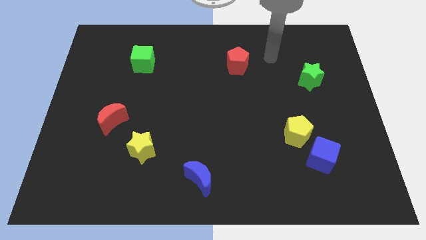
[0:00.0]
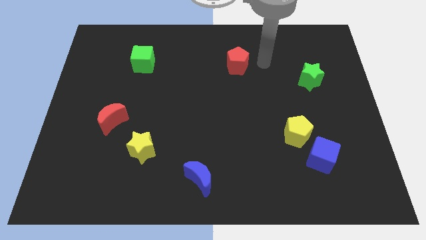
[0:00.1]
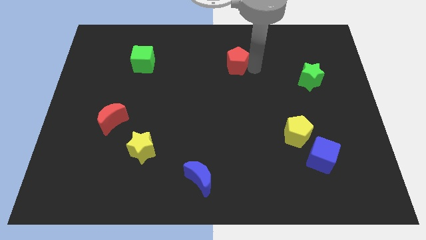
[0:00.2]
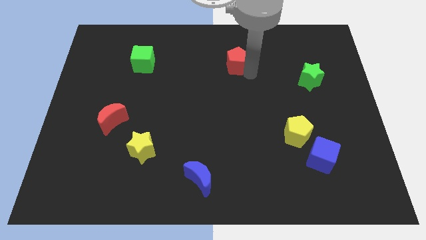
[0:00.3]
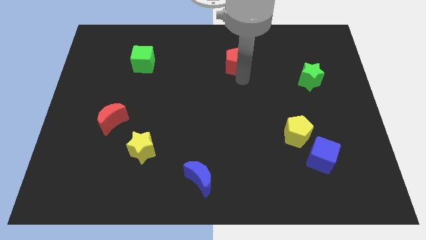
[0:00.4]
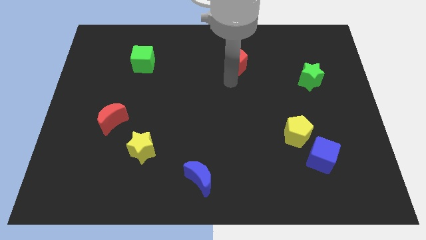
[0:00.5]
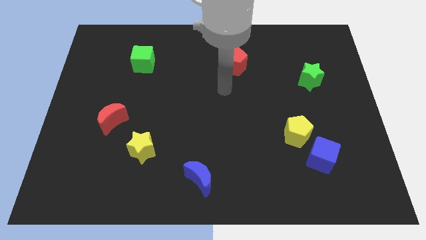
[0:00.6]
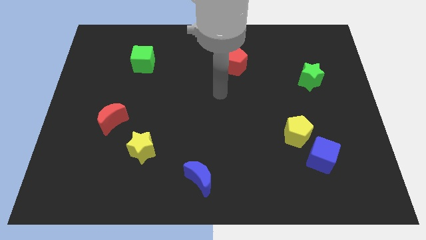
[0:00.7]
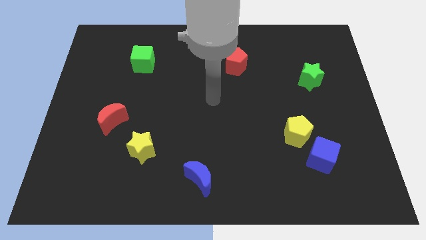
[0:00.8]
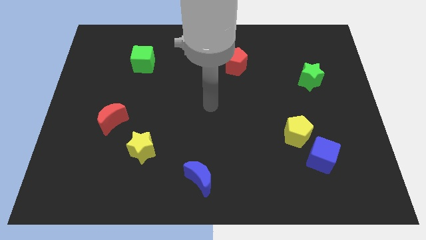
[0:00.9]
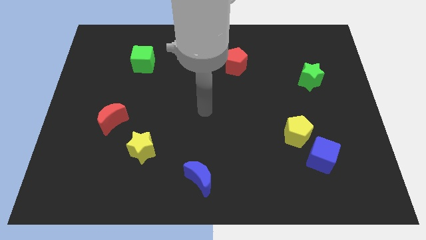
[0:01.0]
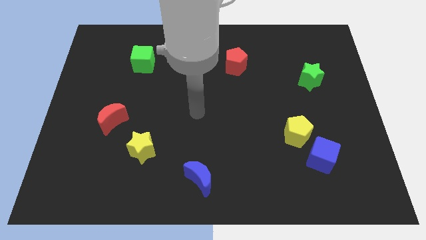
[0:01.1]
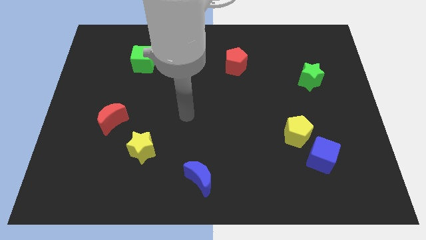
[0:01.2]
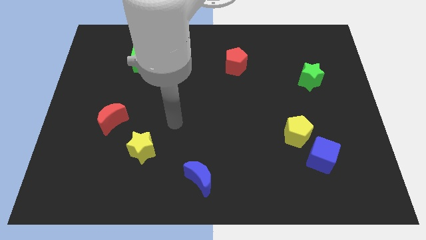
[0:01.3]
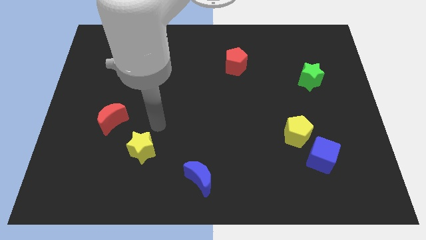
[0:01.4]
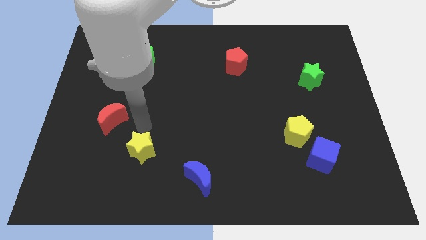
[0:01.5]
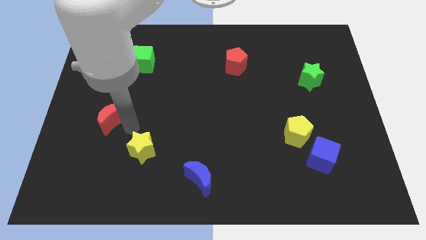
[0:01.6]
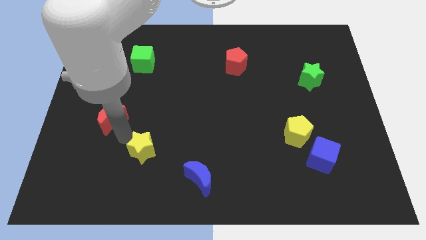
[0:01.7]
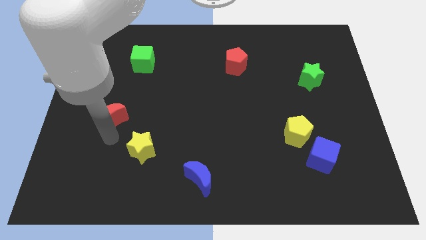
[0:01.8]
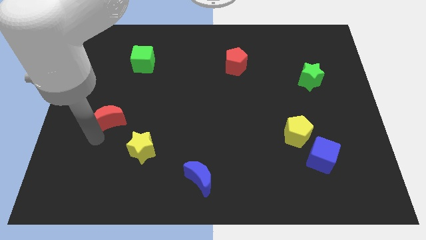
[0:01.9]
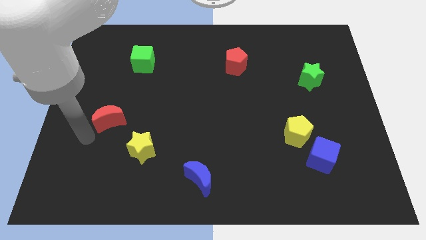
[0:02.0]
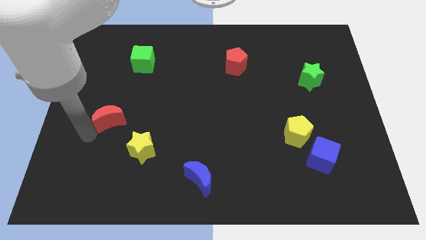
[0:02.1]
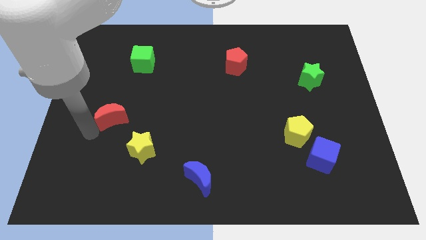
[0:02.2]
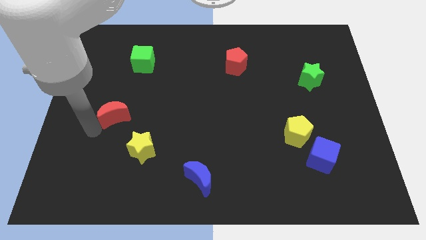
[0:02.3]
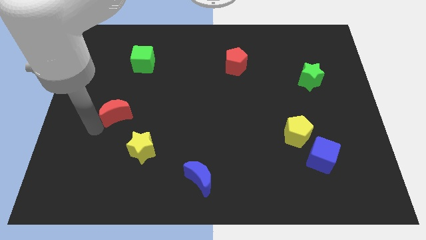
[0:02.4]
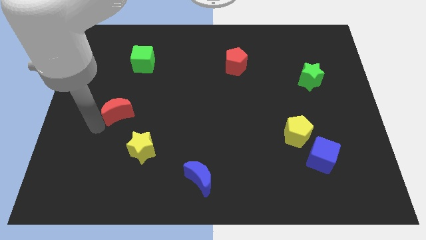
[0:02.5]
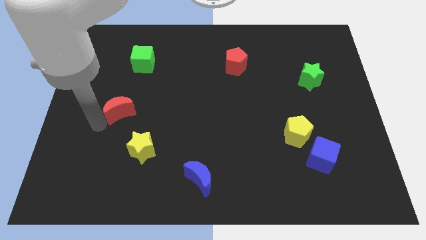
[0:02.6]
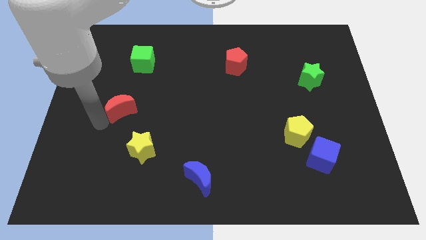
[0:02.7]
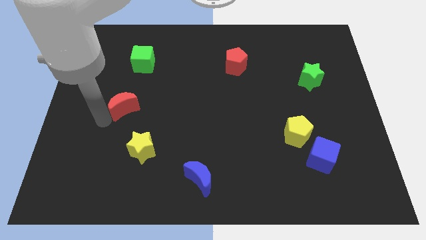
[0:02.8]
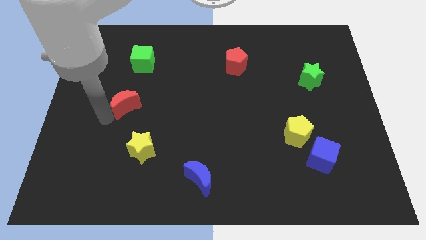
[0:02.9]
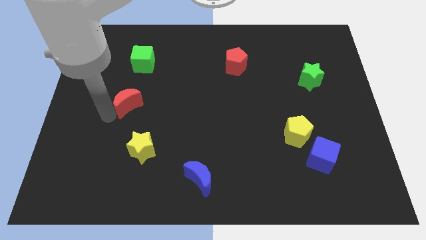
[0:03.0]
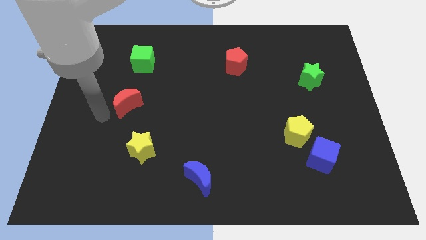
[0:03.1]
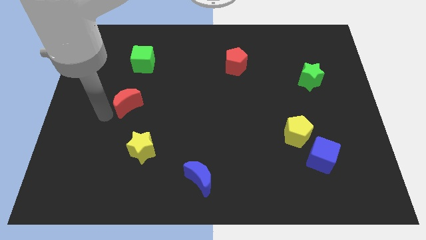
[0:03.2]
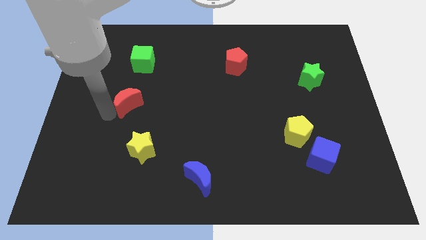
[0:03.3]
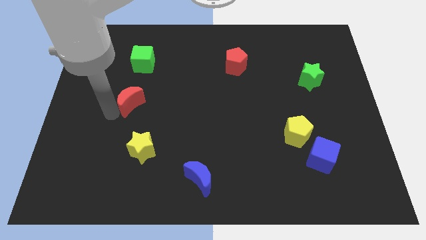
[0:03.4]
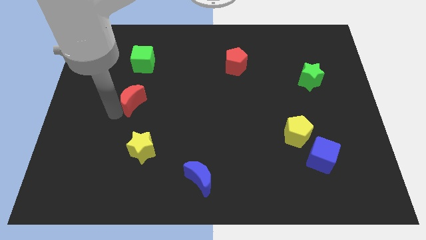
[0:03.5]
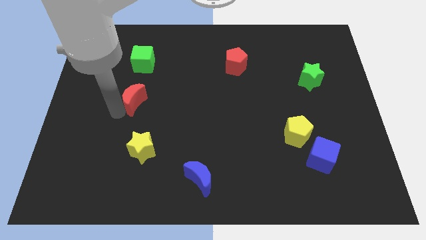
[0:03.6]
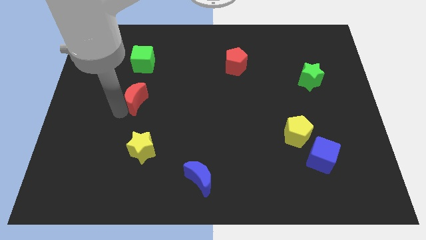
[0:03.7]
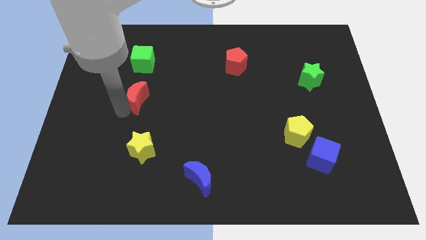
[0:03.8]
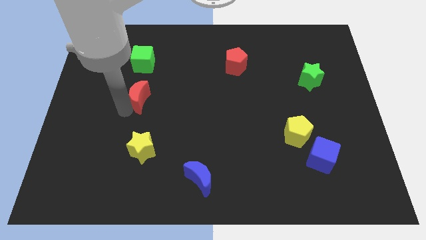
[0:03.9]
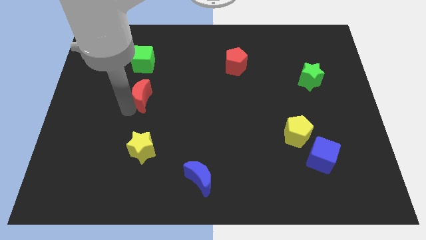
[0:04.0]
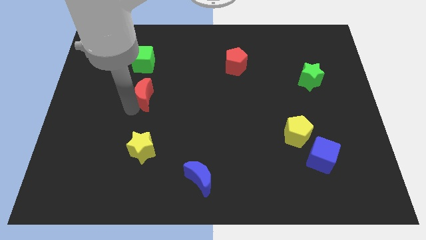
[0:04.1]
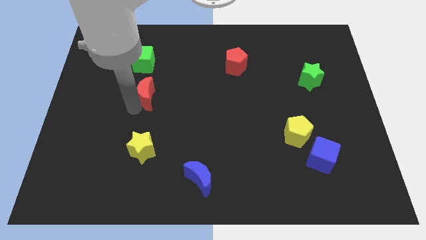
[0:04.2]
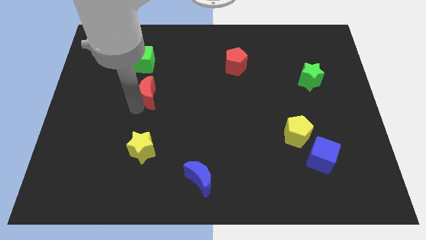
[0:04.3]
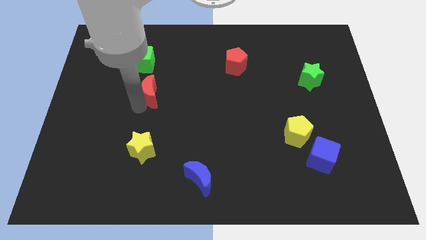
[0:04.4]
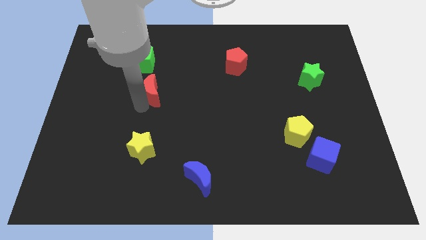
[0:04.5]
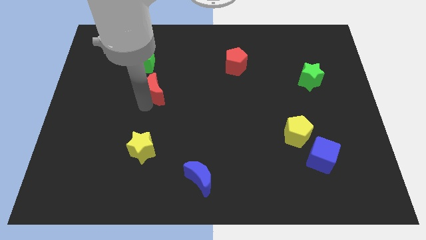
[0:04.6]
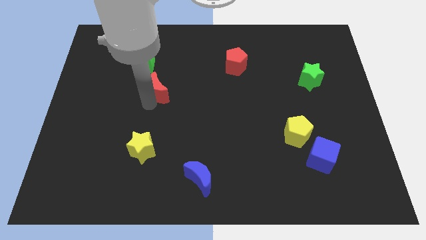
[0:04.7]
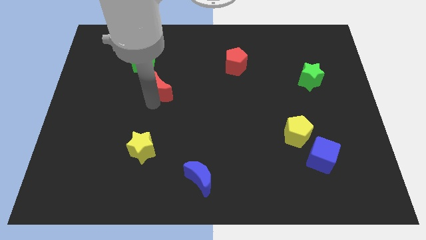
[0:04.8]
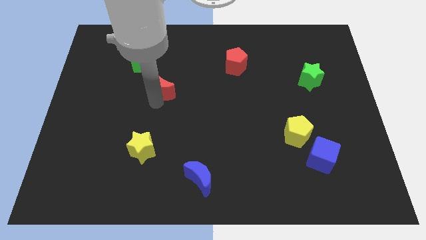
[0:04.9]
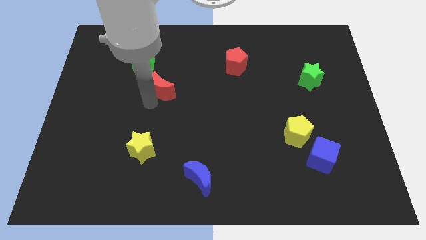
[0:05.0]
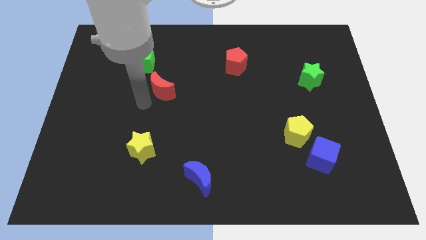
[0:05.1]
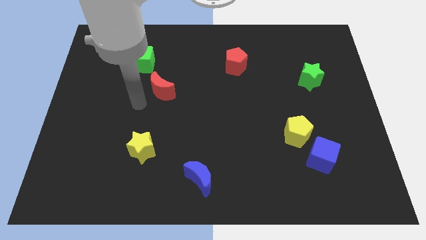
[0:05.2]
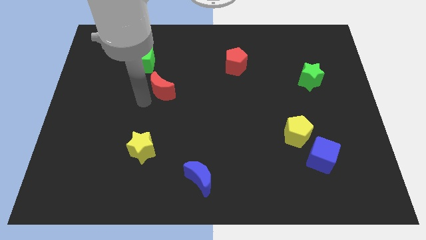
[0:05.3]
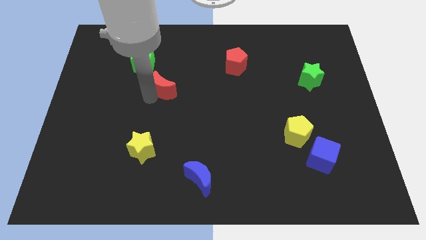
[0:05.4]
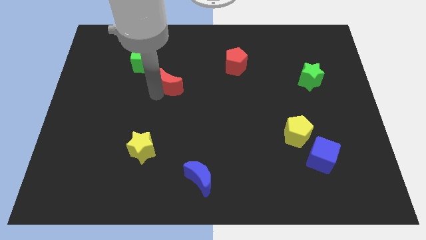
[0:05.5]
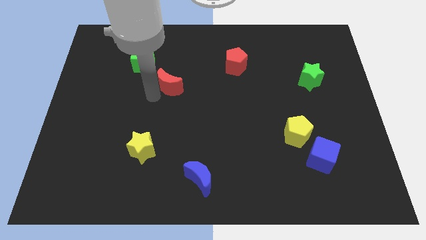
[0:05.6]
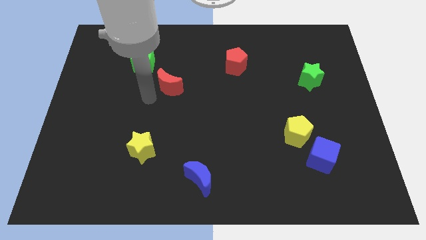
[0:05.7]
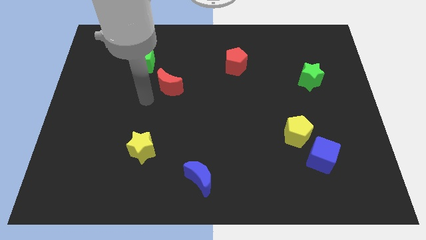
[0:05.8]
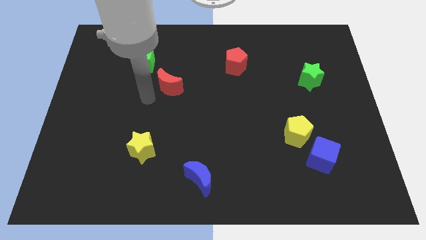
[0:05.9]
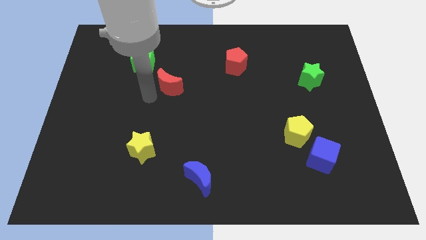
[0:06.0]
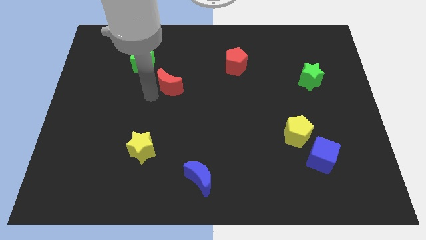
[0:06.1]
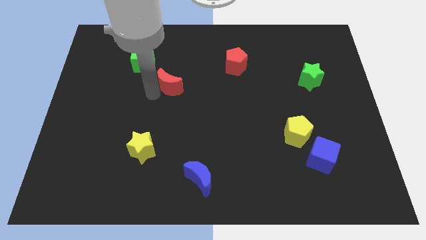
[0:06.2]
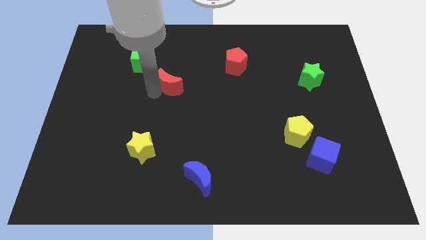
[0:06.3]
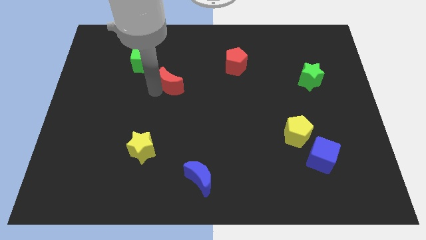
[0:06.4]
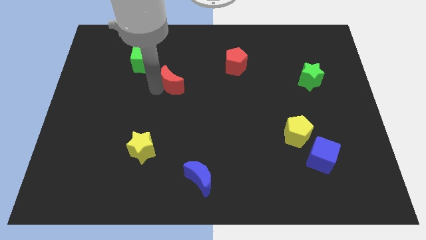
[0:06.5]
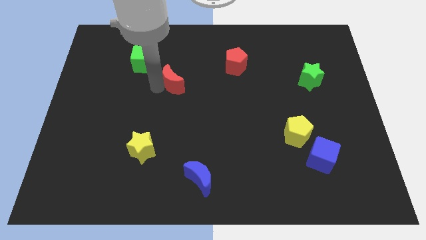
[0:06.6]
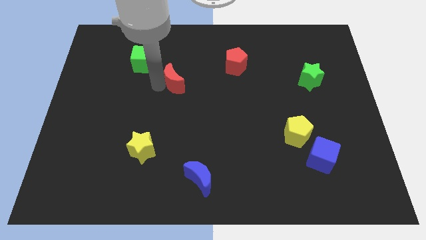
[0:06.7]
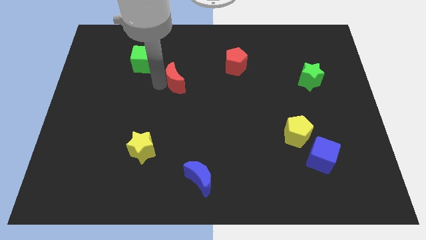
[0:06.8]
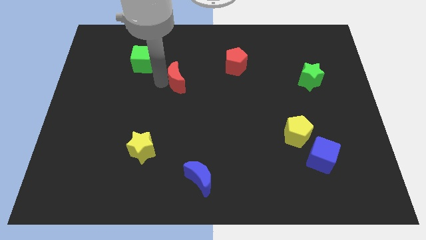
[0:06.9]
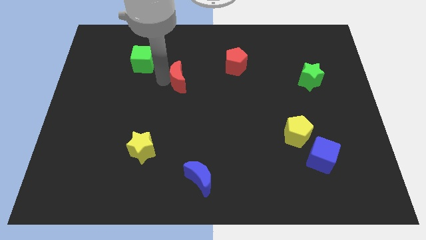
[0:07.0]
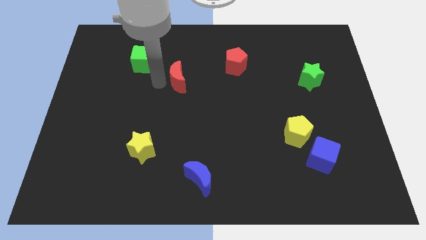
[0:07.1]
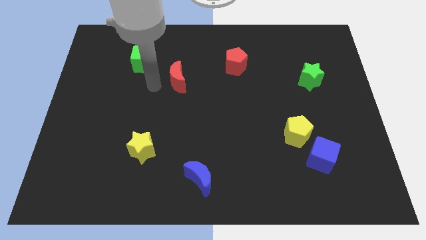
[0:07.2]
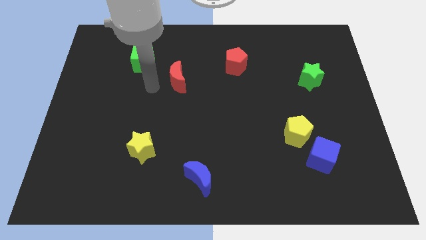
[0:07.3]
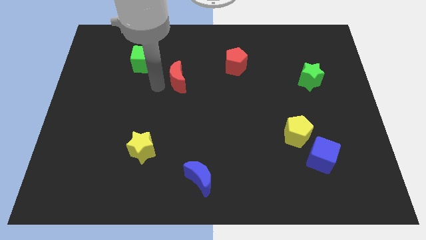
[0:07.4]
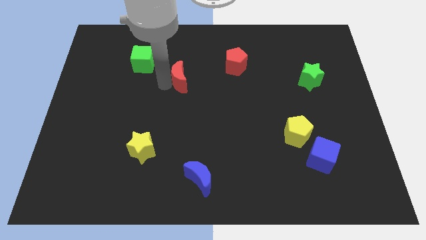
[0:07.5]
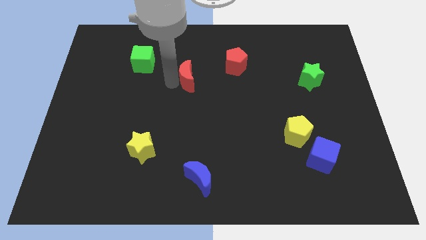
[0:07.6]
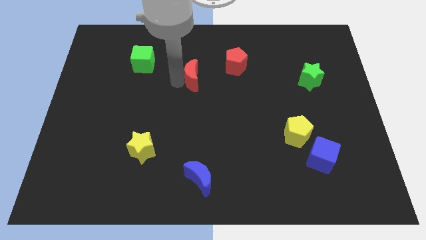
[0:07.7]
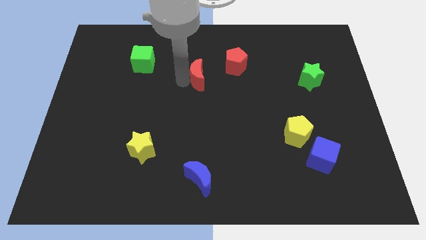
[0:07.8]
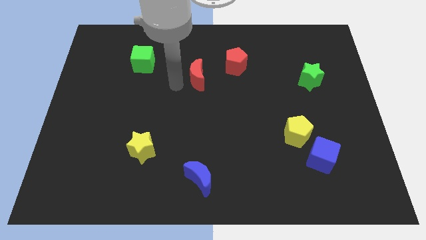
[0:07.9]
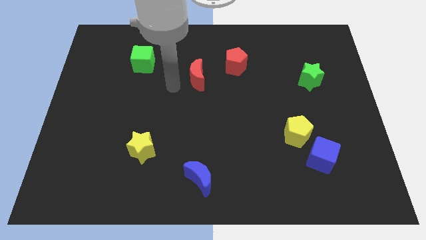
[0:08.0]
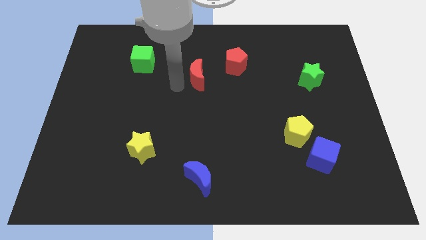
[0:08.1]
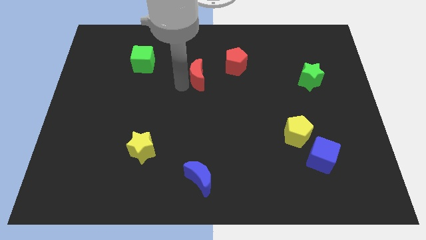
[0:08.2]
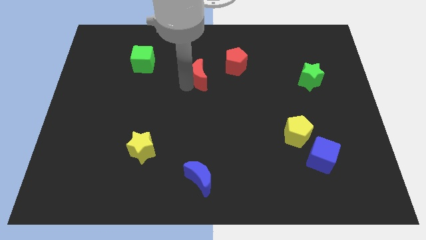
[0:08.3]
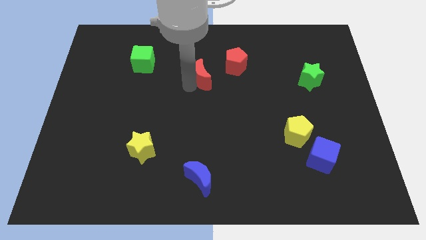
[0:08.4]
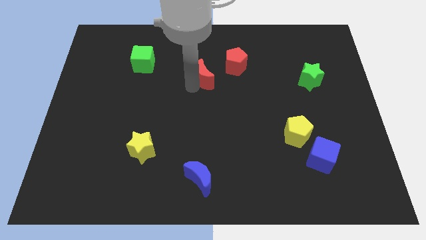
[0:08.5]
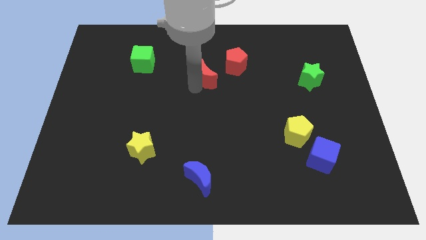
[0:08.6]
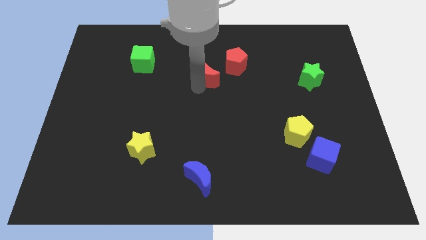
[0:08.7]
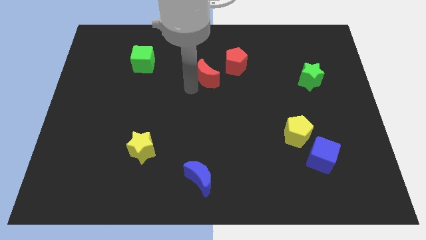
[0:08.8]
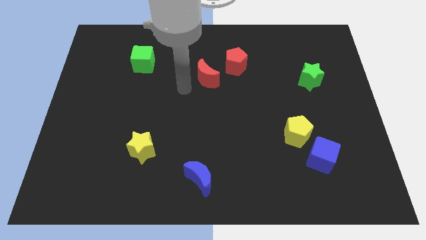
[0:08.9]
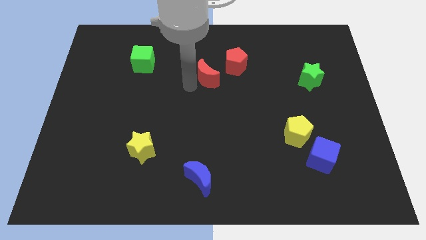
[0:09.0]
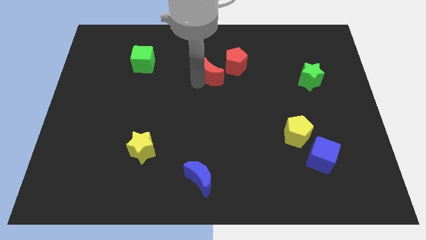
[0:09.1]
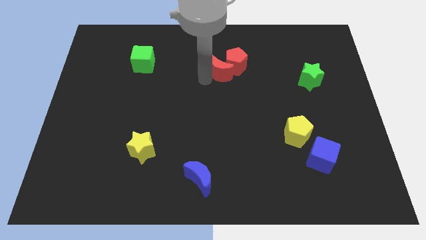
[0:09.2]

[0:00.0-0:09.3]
slide the red moon to the red pentagon
